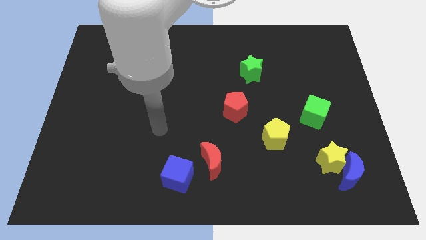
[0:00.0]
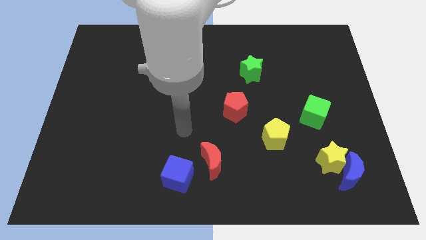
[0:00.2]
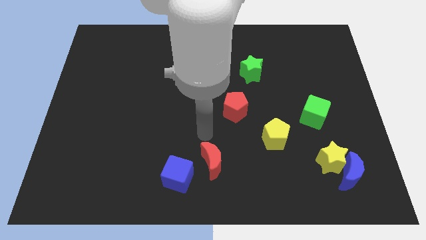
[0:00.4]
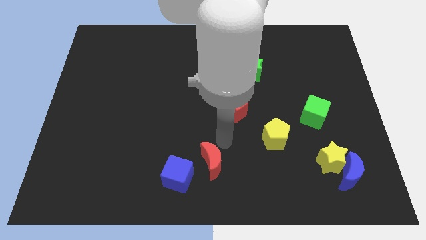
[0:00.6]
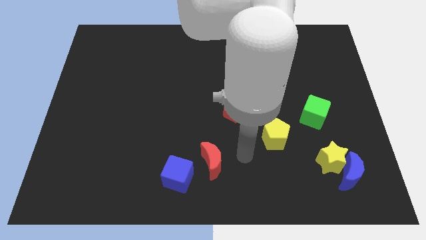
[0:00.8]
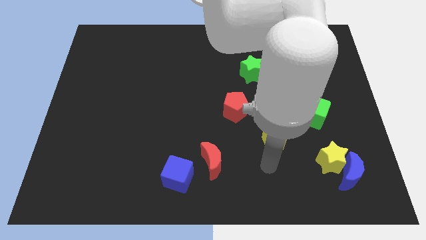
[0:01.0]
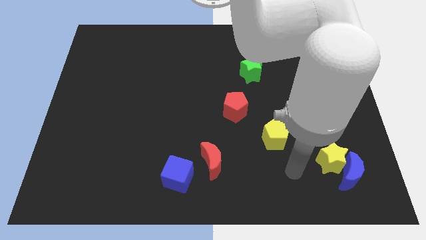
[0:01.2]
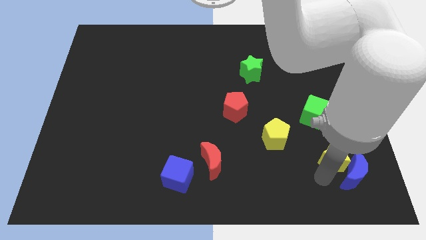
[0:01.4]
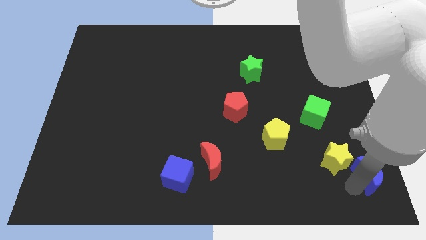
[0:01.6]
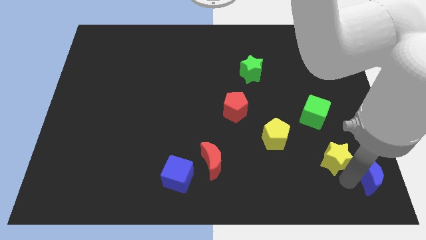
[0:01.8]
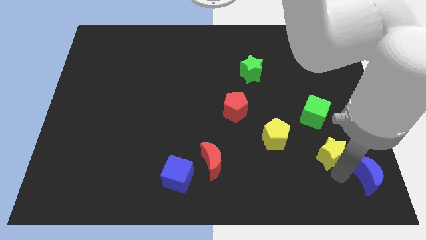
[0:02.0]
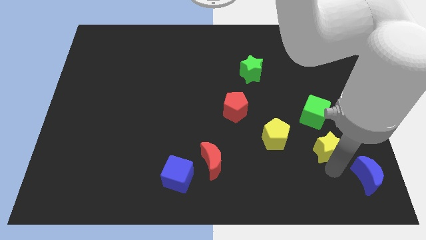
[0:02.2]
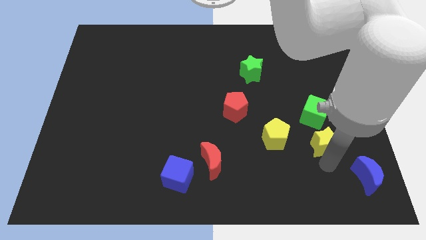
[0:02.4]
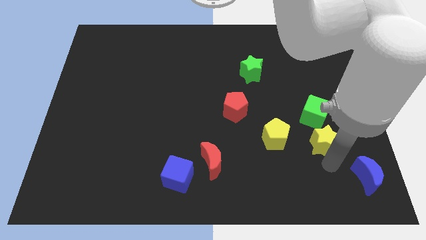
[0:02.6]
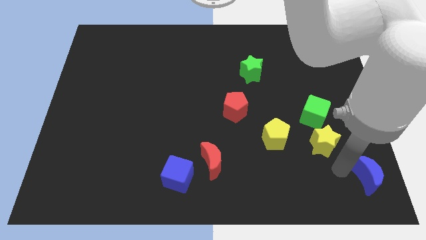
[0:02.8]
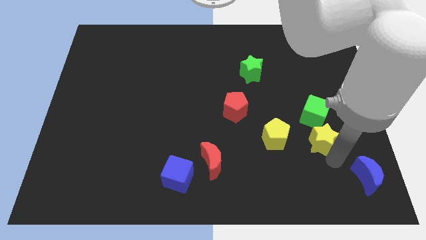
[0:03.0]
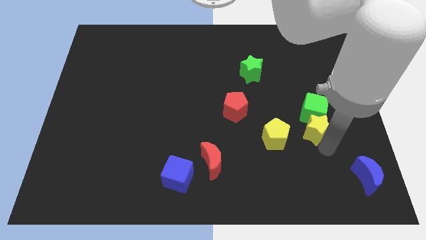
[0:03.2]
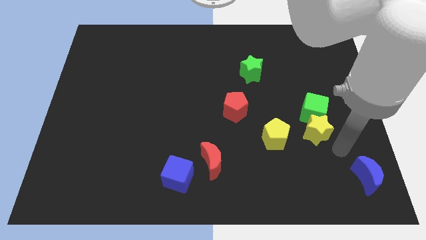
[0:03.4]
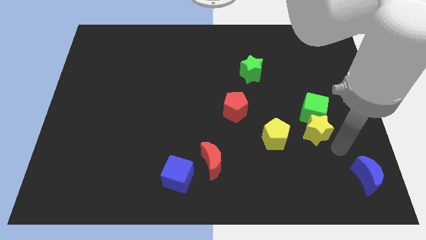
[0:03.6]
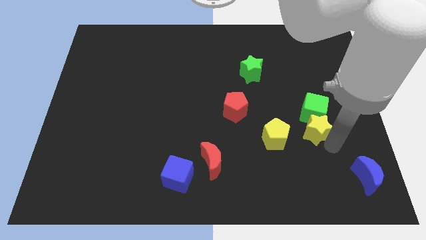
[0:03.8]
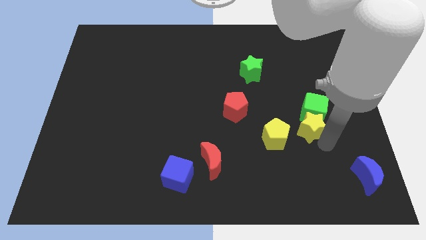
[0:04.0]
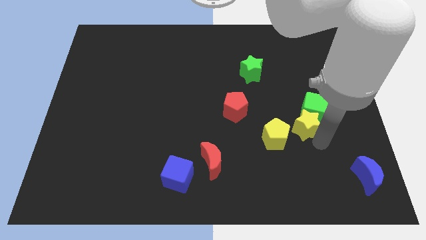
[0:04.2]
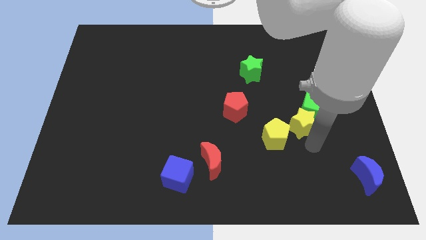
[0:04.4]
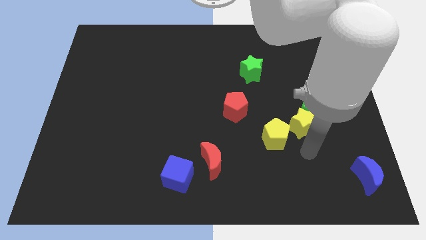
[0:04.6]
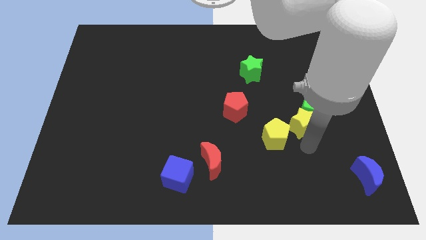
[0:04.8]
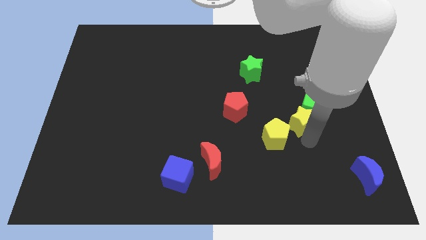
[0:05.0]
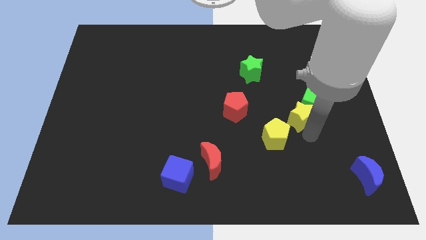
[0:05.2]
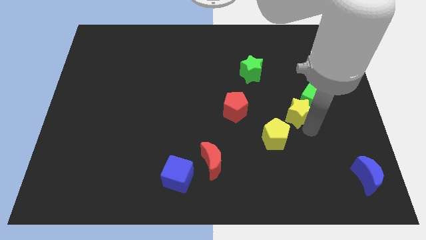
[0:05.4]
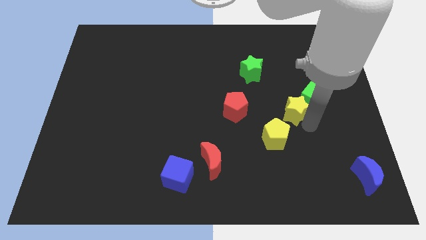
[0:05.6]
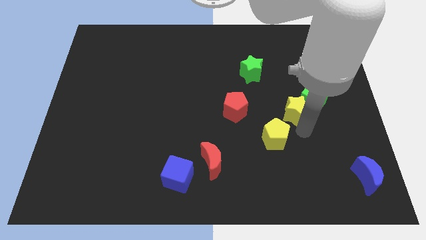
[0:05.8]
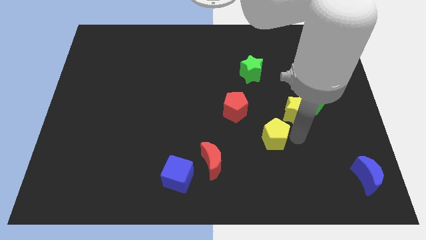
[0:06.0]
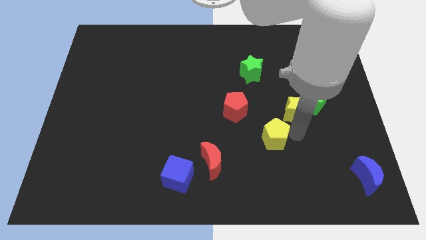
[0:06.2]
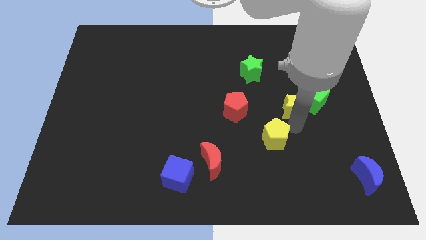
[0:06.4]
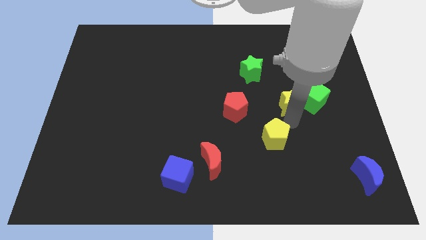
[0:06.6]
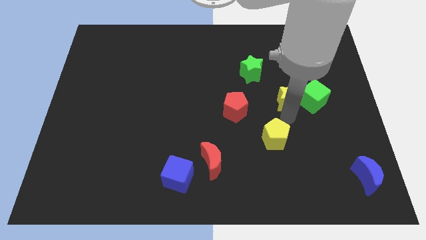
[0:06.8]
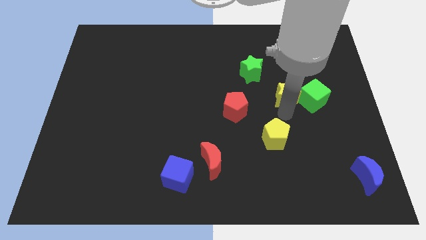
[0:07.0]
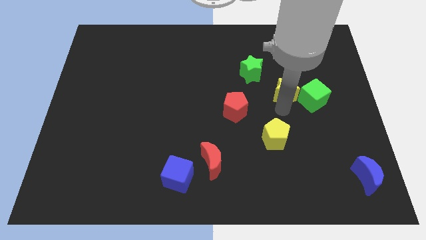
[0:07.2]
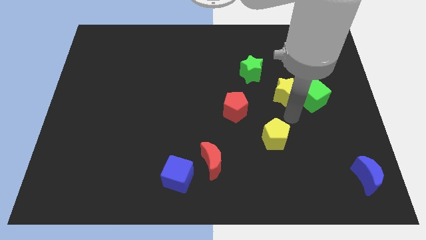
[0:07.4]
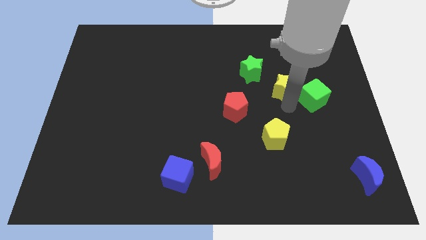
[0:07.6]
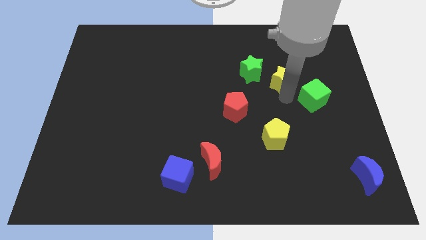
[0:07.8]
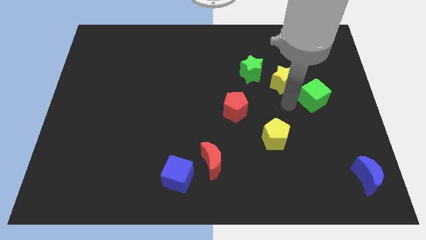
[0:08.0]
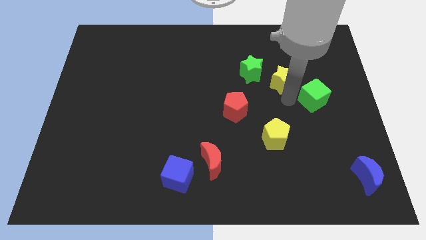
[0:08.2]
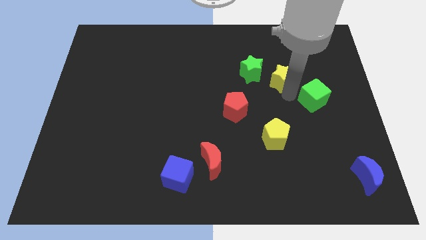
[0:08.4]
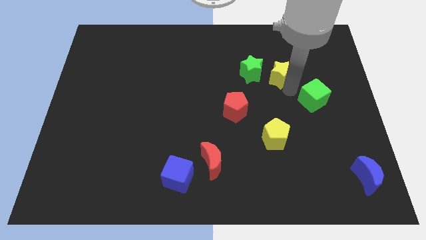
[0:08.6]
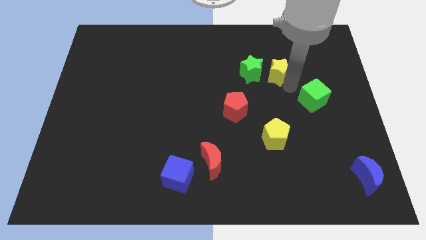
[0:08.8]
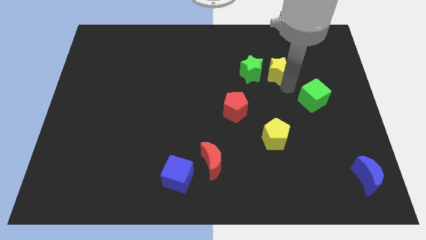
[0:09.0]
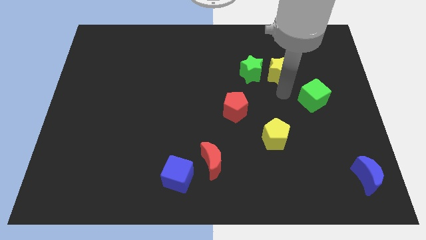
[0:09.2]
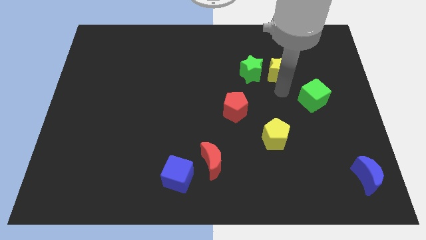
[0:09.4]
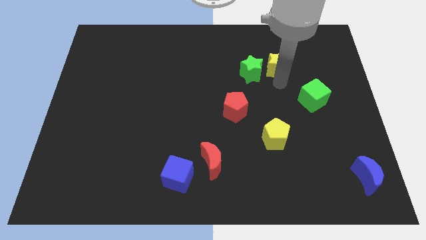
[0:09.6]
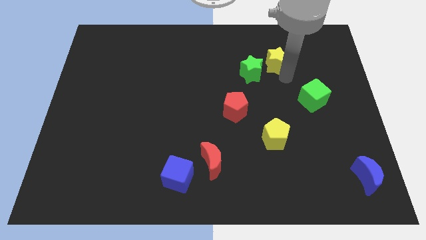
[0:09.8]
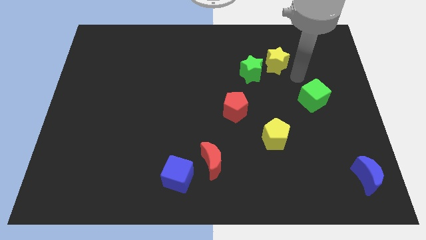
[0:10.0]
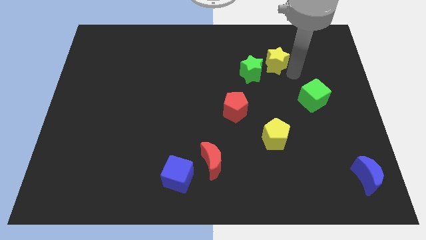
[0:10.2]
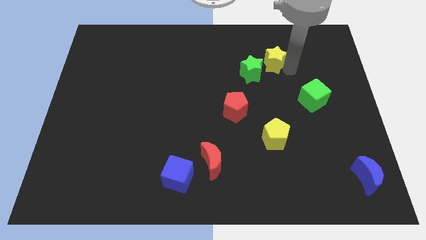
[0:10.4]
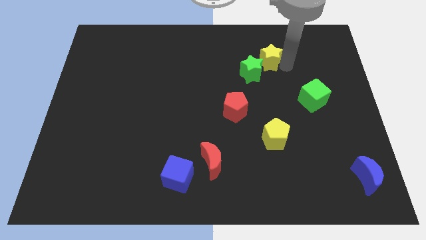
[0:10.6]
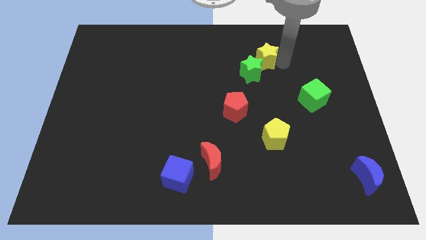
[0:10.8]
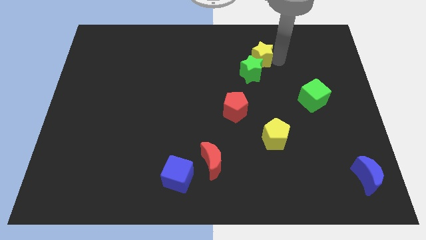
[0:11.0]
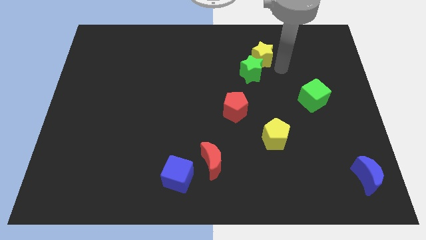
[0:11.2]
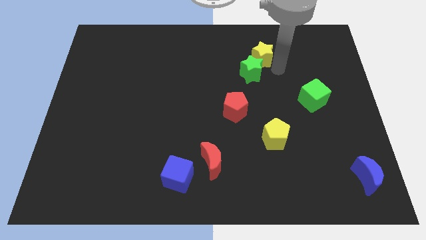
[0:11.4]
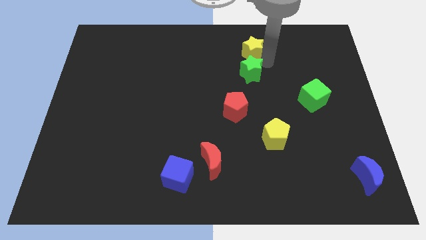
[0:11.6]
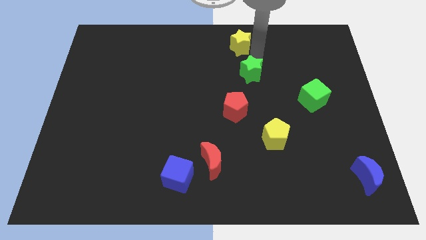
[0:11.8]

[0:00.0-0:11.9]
slide the yellow star to the top

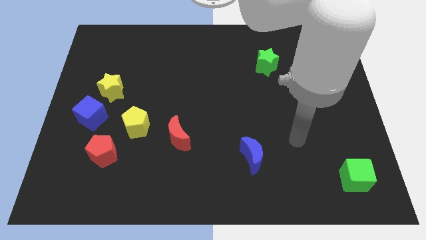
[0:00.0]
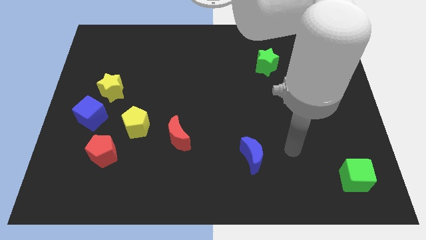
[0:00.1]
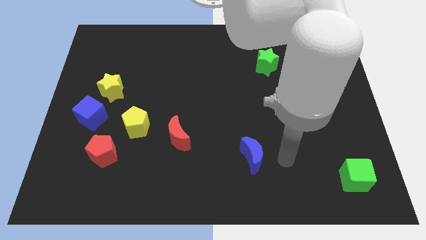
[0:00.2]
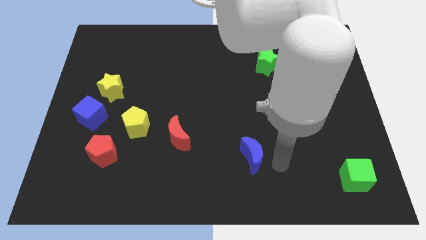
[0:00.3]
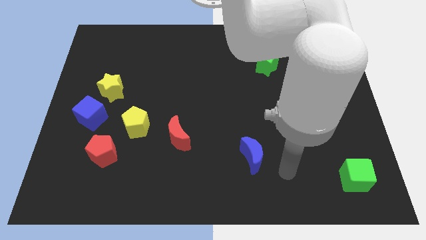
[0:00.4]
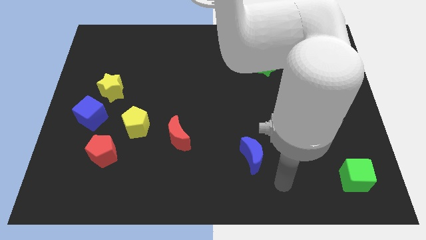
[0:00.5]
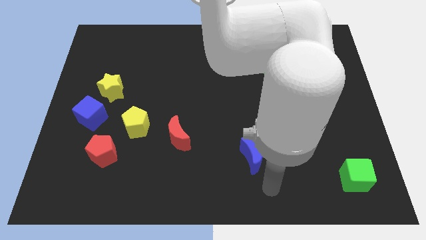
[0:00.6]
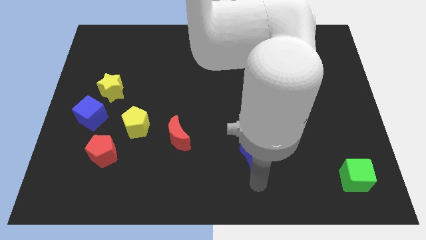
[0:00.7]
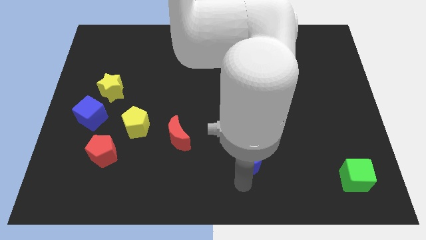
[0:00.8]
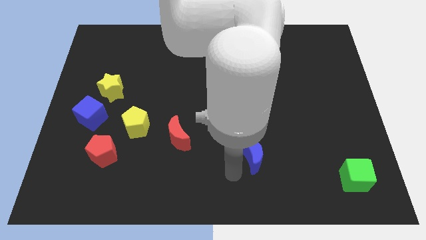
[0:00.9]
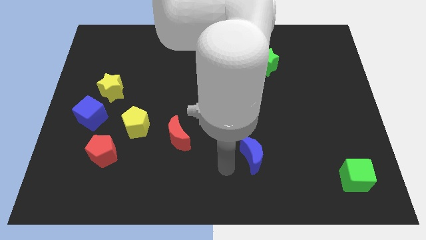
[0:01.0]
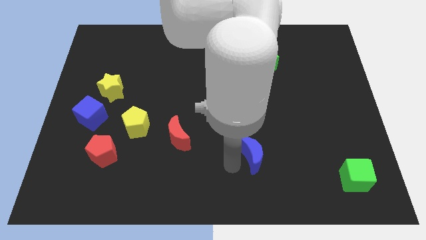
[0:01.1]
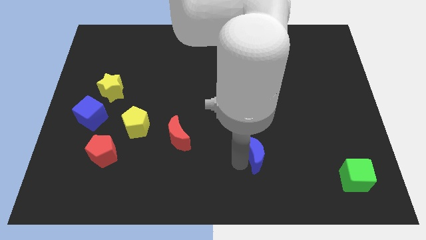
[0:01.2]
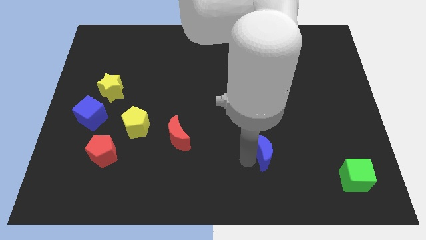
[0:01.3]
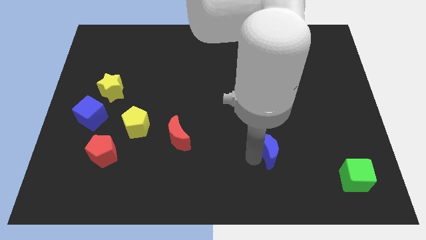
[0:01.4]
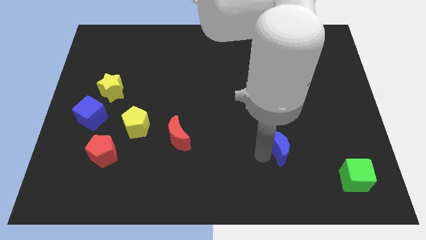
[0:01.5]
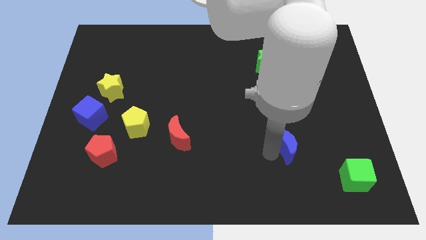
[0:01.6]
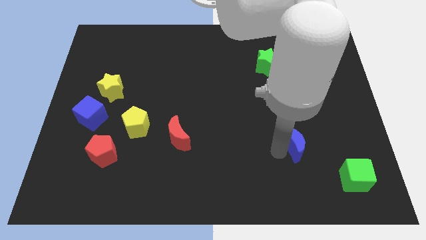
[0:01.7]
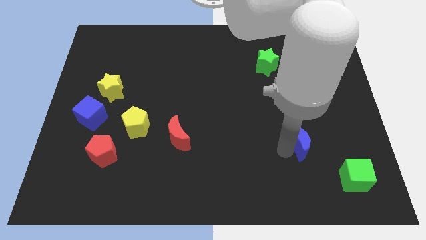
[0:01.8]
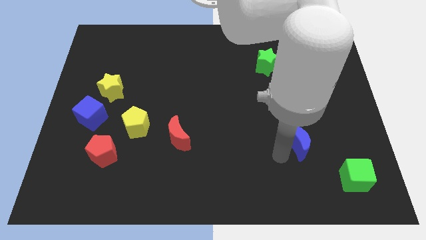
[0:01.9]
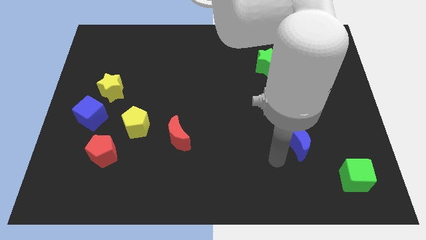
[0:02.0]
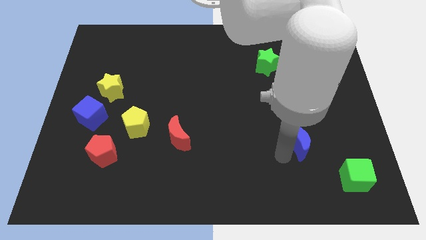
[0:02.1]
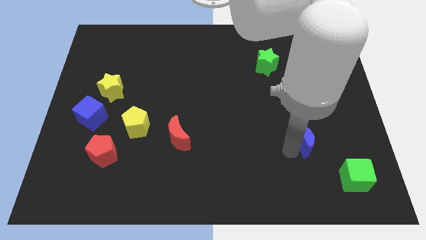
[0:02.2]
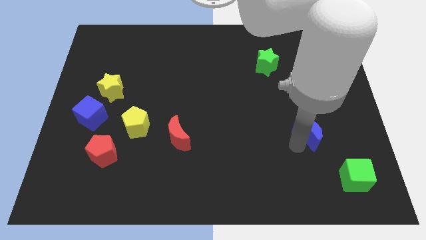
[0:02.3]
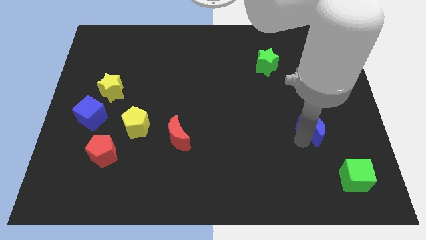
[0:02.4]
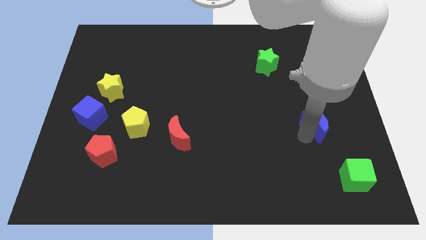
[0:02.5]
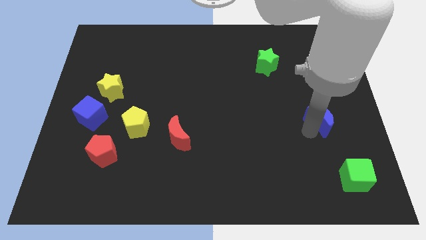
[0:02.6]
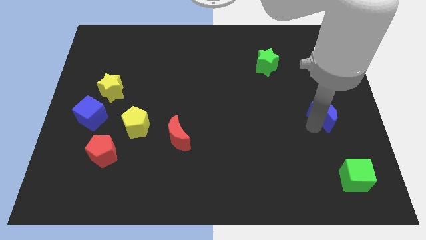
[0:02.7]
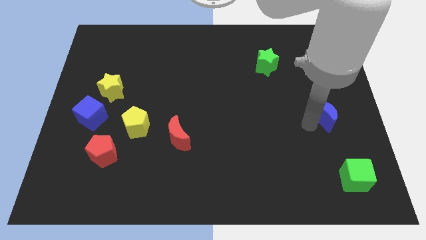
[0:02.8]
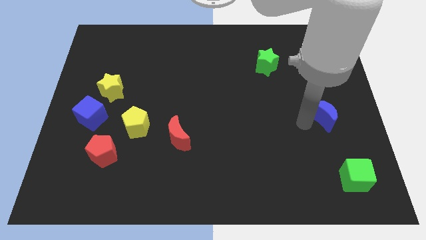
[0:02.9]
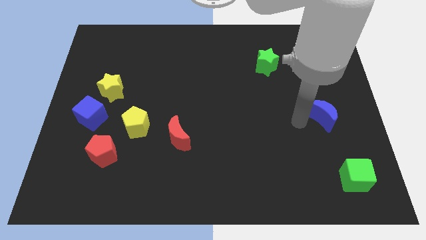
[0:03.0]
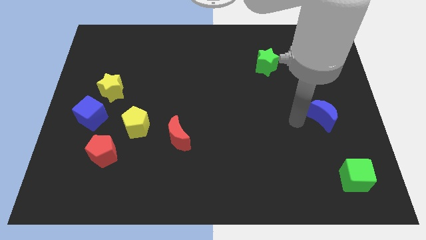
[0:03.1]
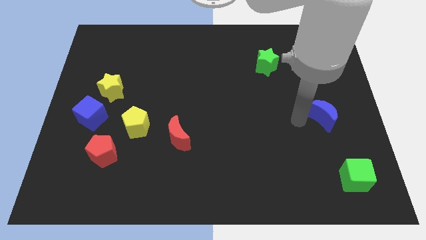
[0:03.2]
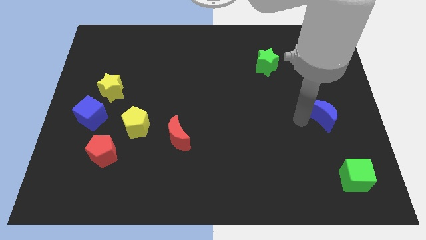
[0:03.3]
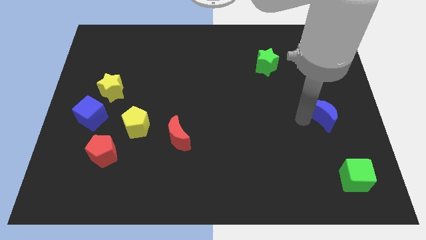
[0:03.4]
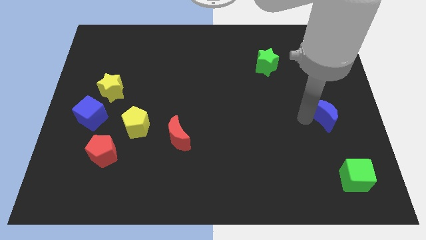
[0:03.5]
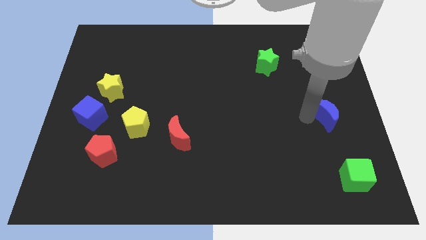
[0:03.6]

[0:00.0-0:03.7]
push the blue moon to the center right
